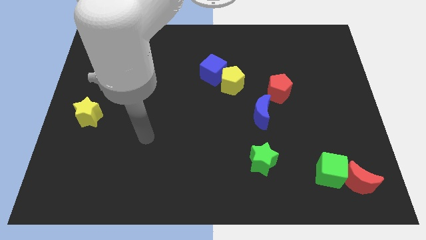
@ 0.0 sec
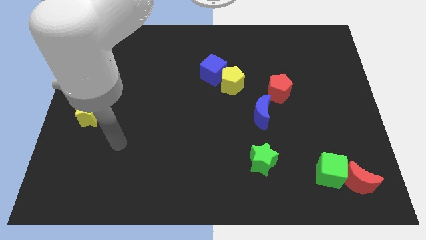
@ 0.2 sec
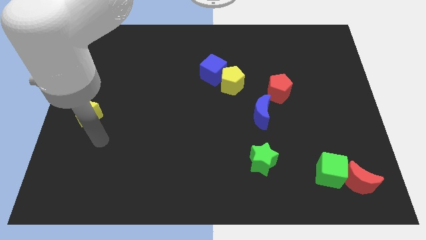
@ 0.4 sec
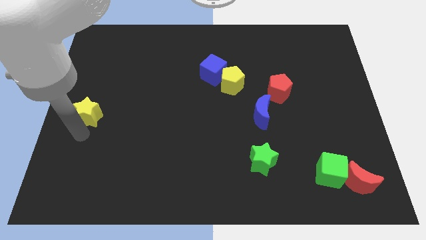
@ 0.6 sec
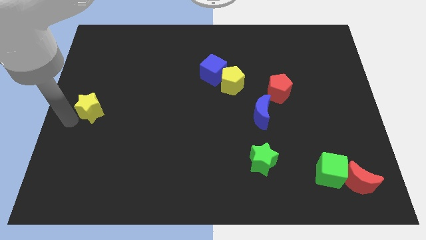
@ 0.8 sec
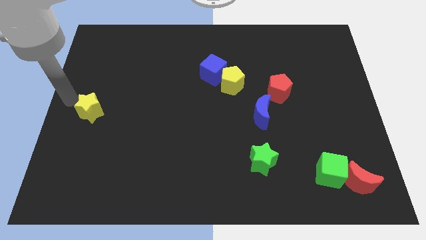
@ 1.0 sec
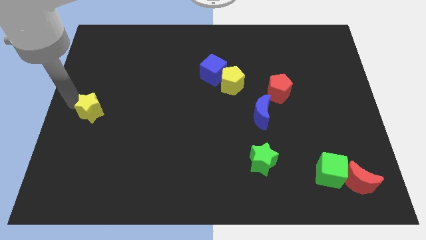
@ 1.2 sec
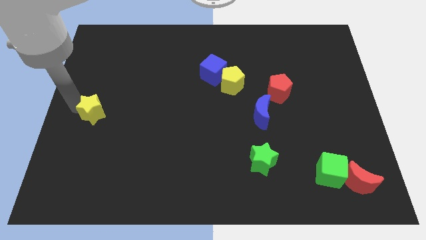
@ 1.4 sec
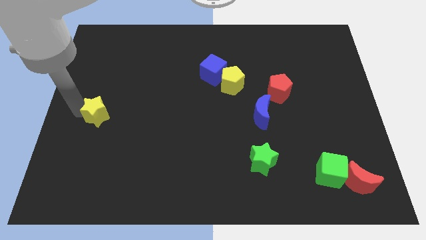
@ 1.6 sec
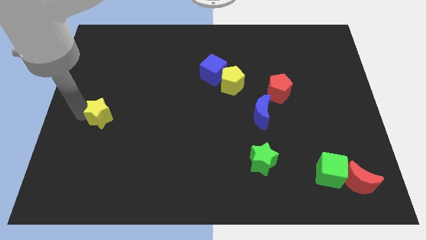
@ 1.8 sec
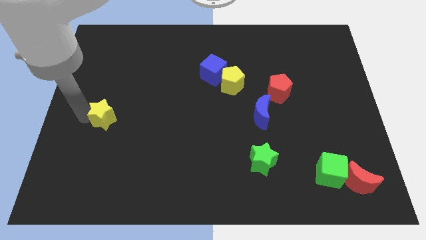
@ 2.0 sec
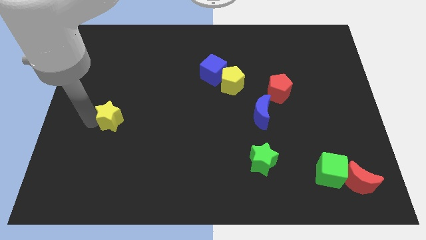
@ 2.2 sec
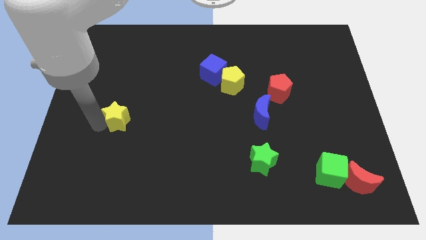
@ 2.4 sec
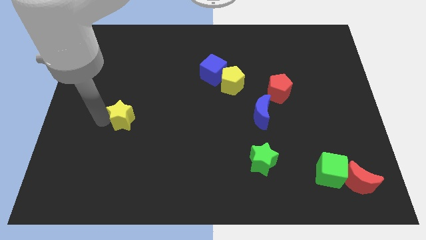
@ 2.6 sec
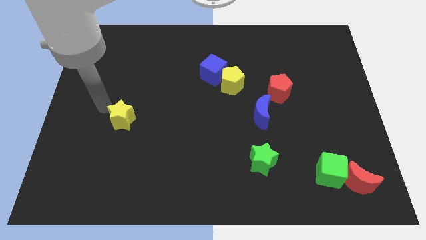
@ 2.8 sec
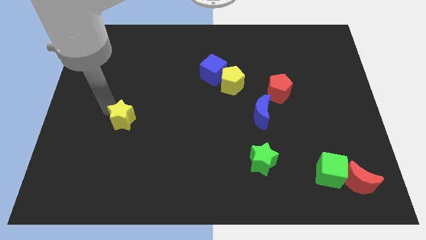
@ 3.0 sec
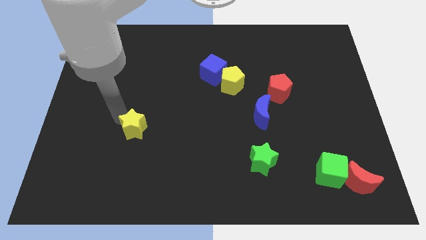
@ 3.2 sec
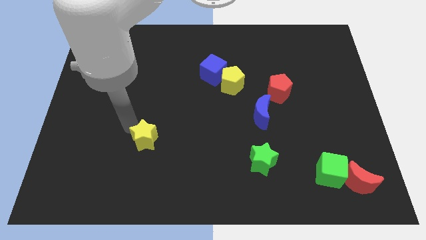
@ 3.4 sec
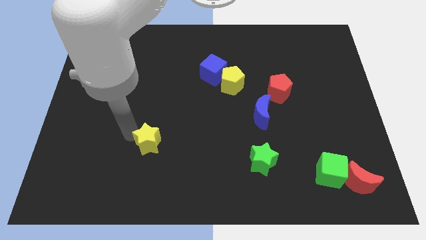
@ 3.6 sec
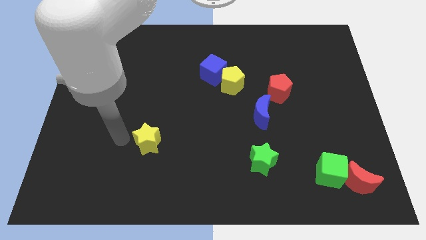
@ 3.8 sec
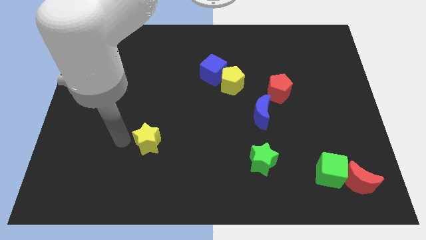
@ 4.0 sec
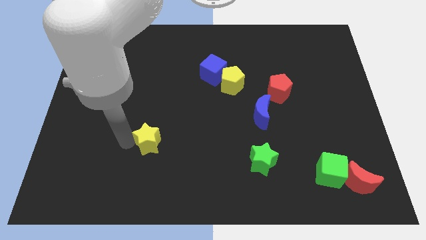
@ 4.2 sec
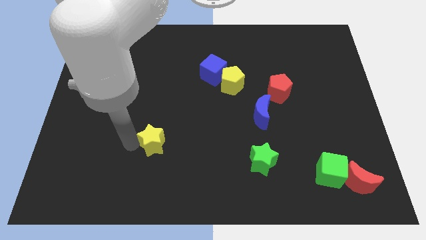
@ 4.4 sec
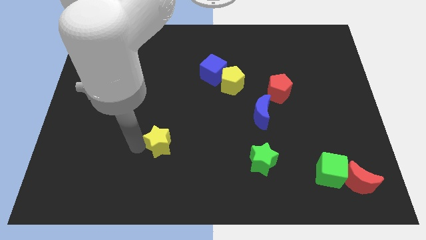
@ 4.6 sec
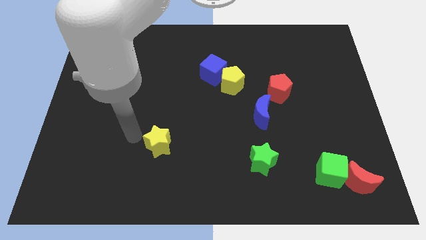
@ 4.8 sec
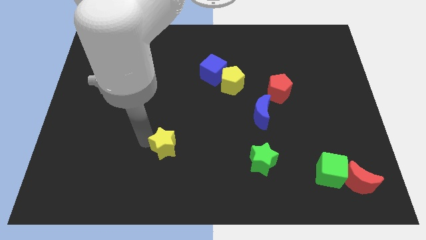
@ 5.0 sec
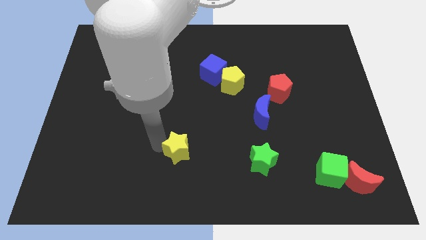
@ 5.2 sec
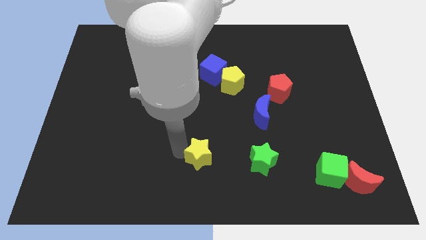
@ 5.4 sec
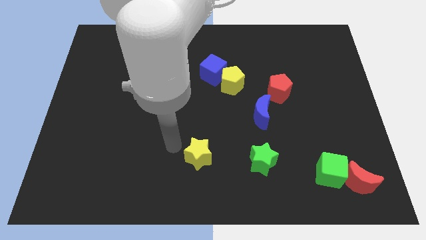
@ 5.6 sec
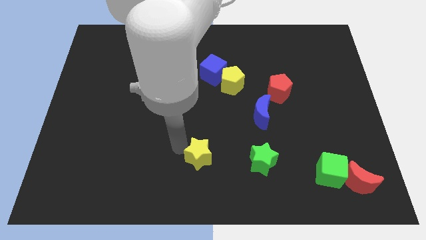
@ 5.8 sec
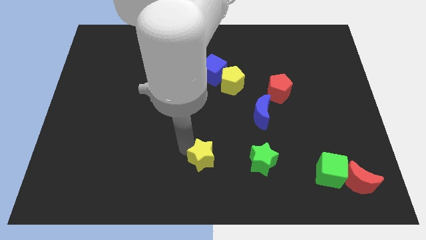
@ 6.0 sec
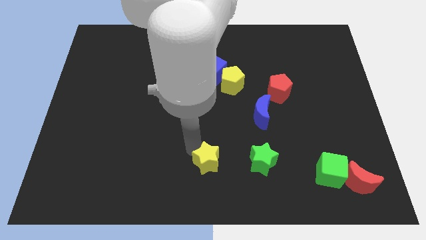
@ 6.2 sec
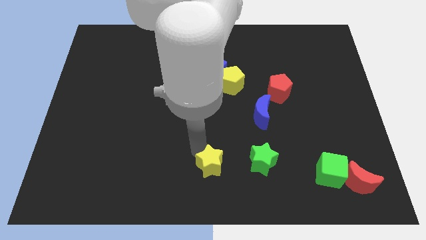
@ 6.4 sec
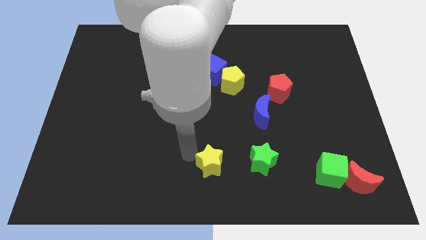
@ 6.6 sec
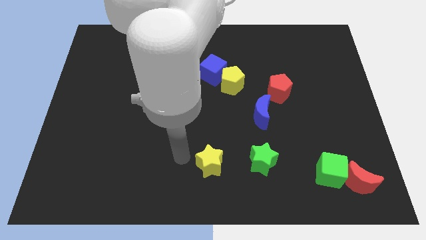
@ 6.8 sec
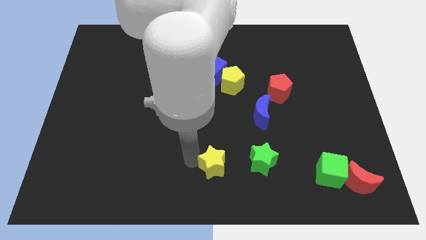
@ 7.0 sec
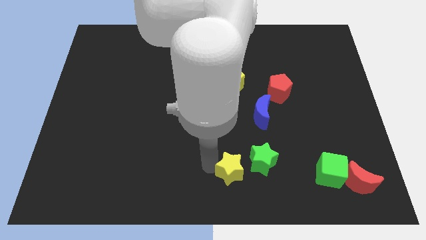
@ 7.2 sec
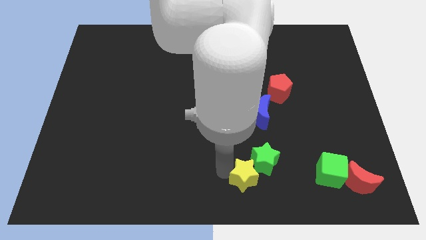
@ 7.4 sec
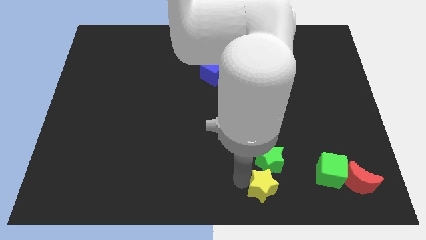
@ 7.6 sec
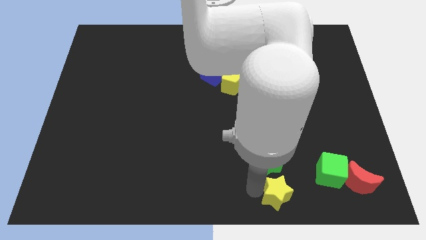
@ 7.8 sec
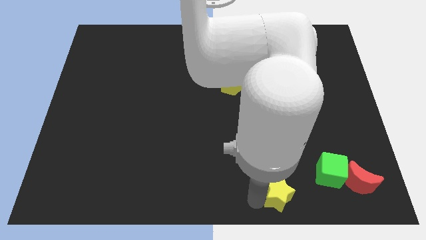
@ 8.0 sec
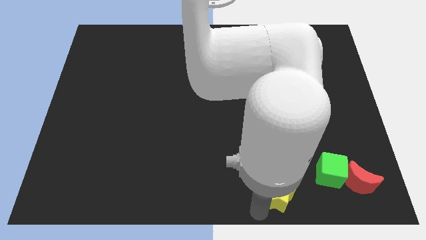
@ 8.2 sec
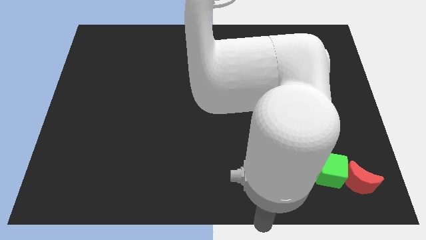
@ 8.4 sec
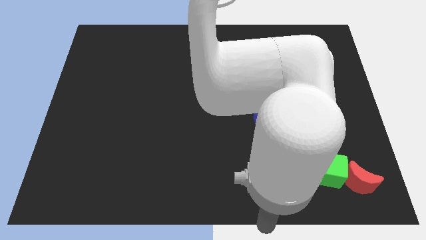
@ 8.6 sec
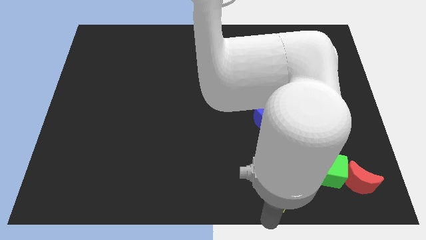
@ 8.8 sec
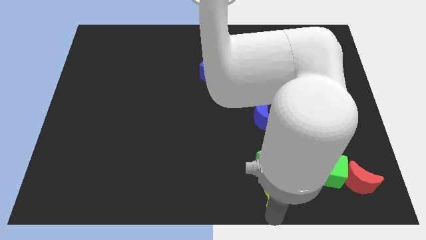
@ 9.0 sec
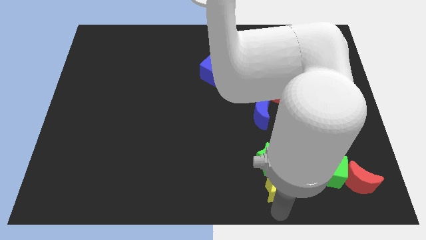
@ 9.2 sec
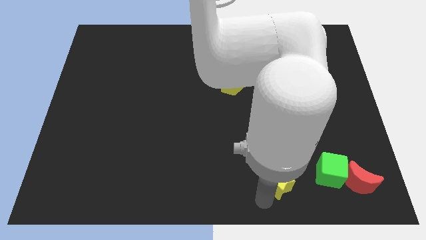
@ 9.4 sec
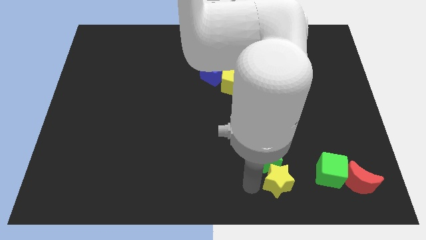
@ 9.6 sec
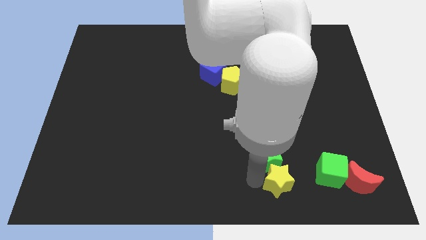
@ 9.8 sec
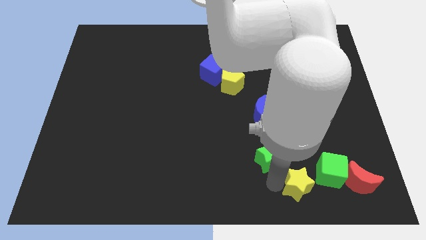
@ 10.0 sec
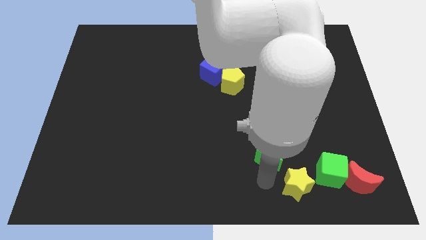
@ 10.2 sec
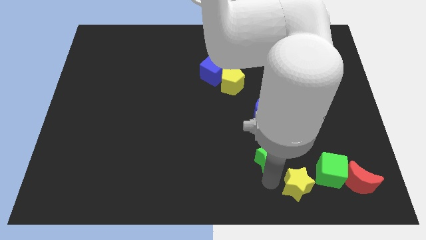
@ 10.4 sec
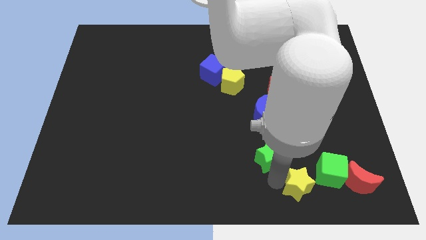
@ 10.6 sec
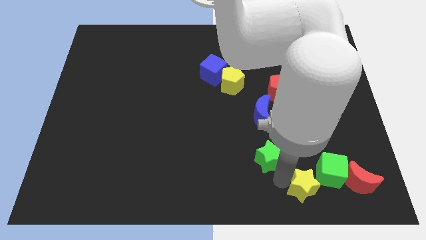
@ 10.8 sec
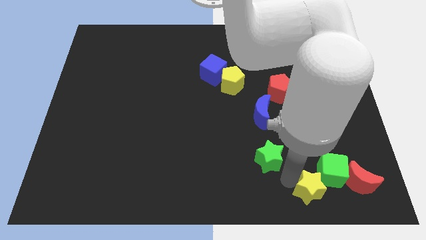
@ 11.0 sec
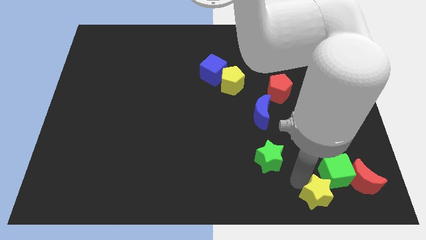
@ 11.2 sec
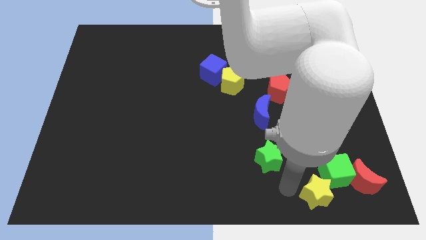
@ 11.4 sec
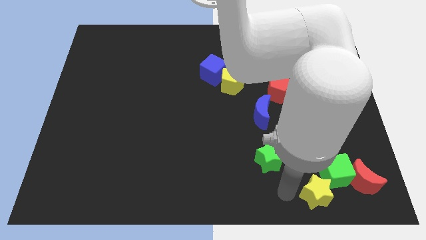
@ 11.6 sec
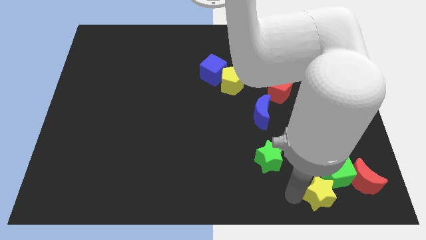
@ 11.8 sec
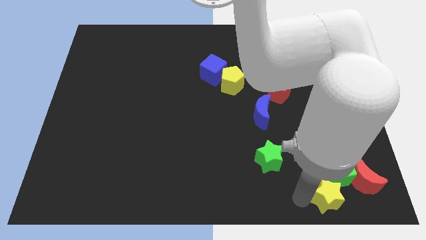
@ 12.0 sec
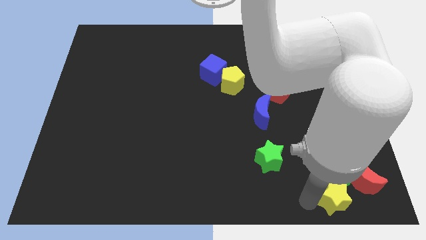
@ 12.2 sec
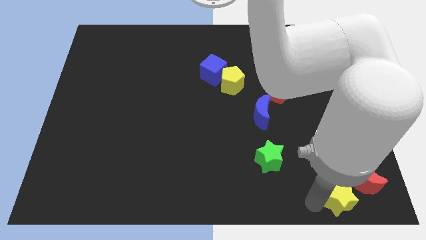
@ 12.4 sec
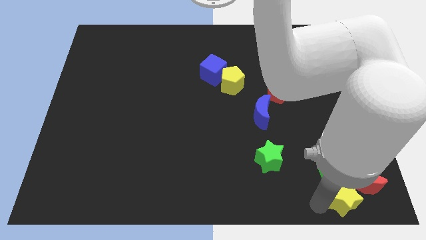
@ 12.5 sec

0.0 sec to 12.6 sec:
slide the yellow star to the bottom right
